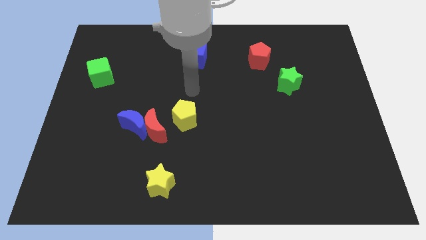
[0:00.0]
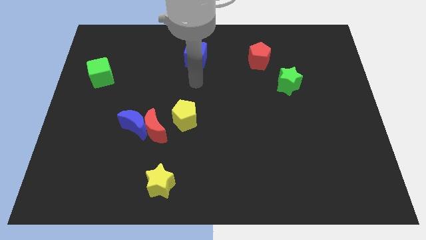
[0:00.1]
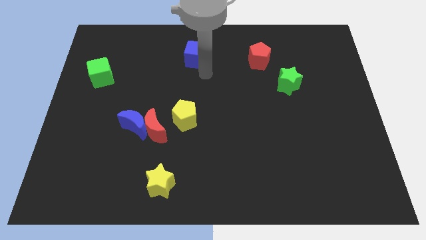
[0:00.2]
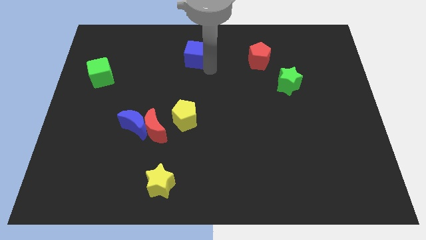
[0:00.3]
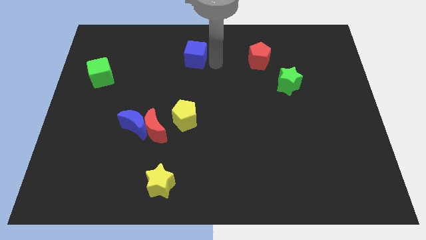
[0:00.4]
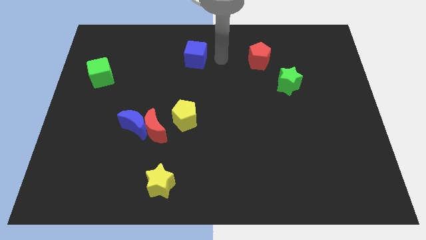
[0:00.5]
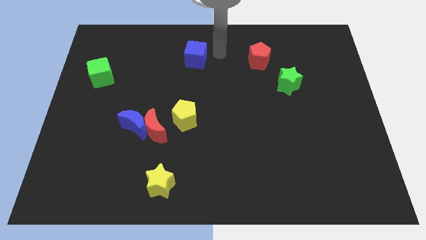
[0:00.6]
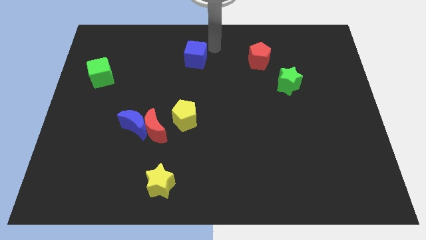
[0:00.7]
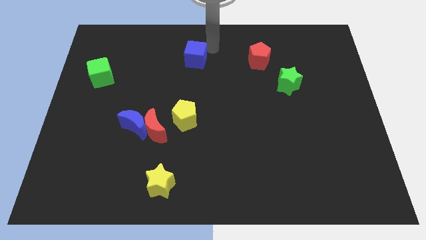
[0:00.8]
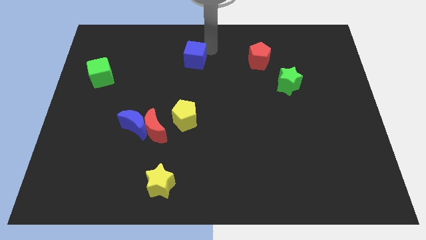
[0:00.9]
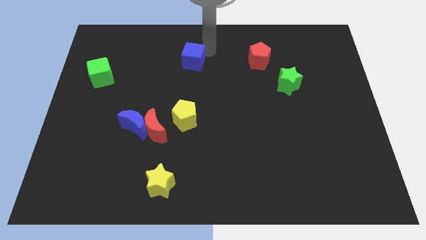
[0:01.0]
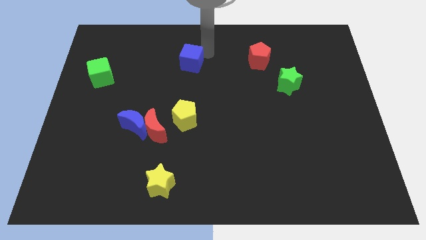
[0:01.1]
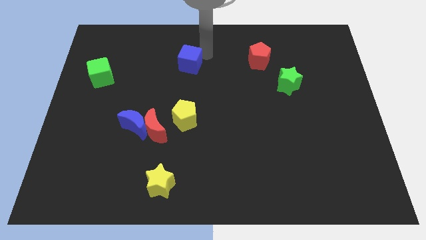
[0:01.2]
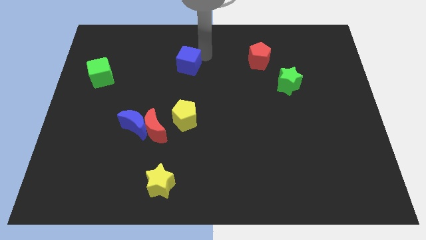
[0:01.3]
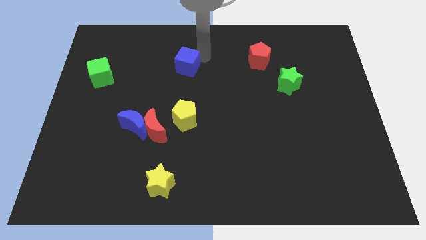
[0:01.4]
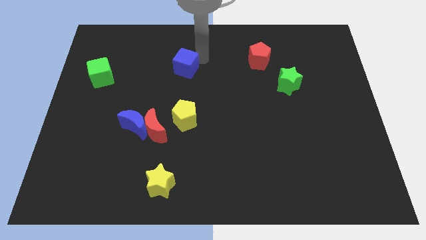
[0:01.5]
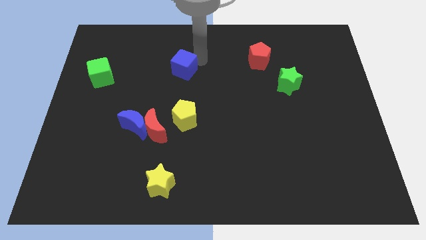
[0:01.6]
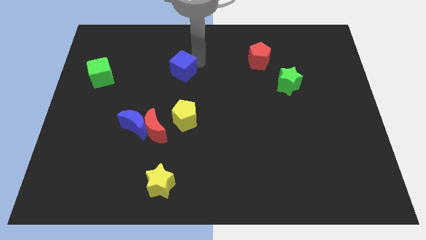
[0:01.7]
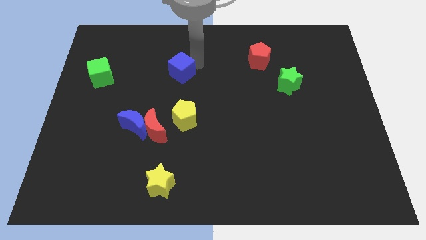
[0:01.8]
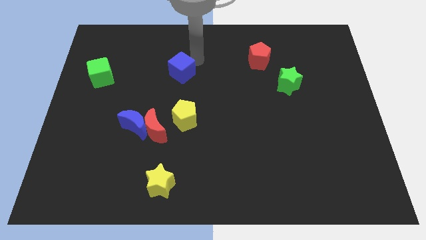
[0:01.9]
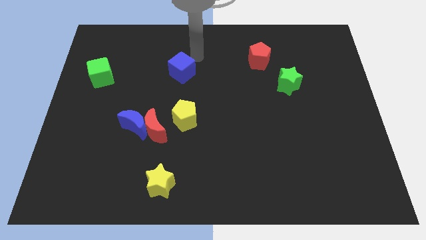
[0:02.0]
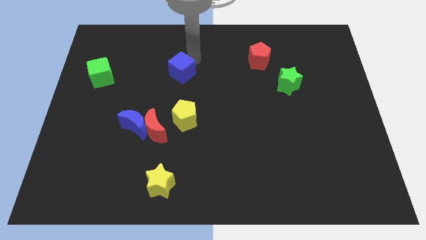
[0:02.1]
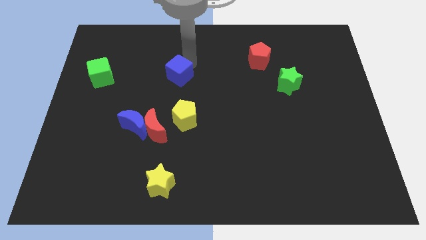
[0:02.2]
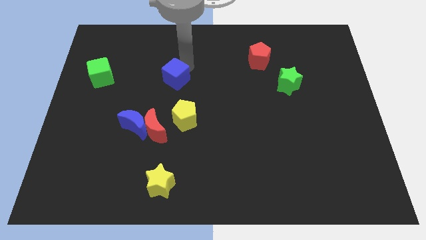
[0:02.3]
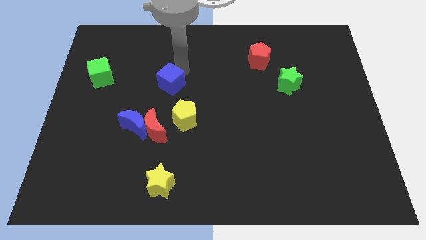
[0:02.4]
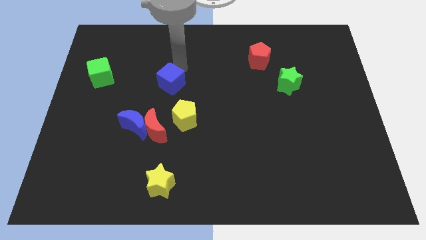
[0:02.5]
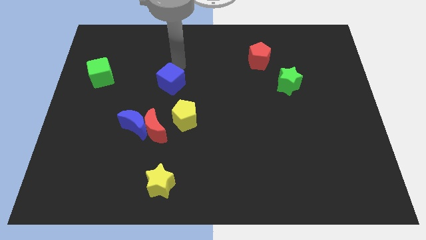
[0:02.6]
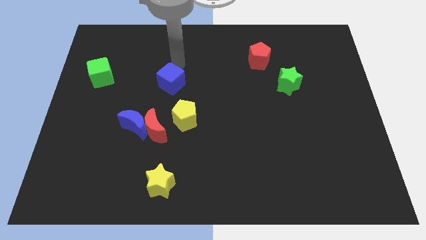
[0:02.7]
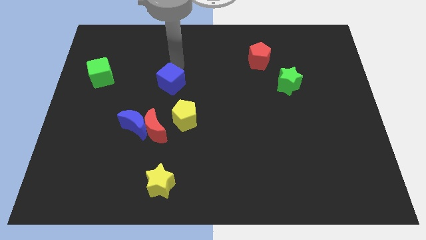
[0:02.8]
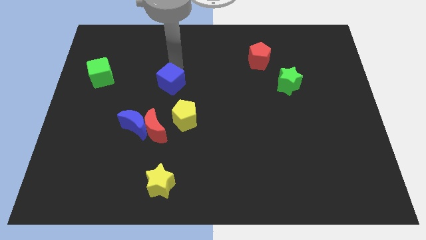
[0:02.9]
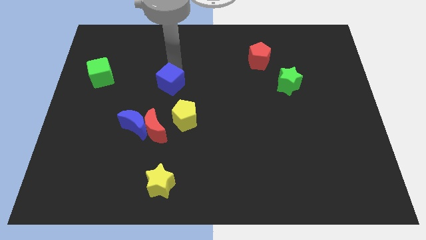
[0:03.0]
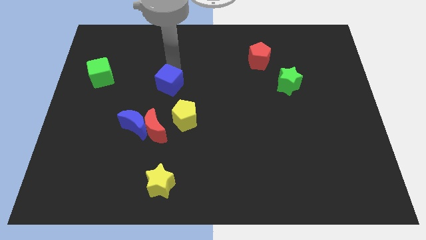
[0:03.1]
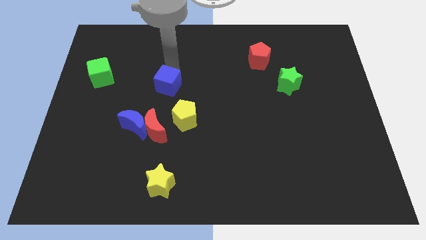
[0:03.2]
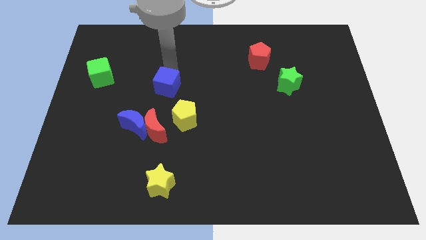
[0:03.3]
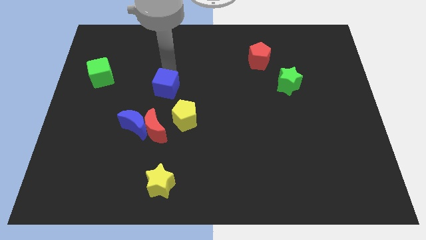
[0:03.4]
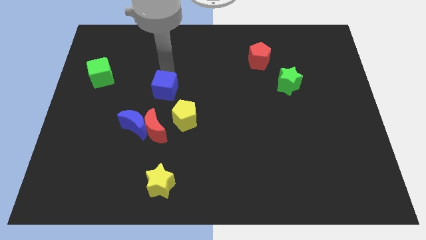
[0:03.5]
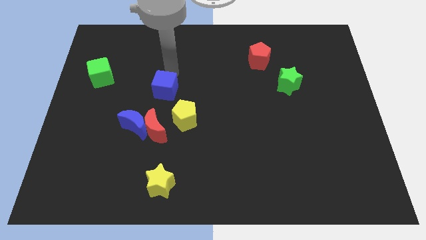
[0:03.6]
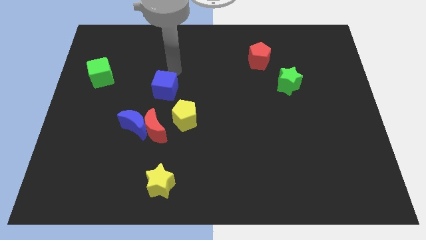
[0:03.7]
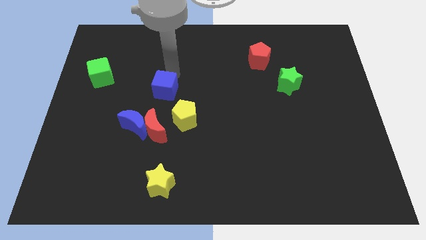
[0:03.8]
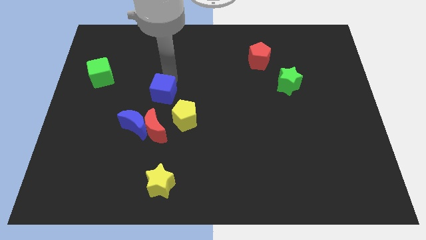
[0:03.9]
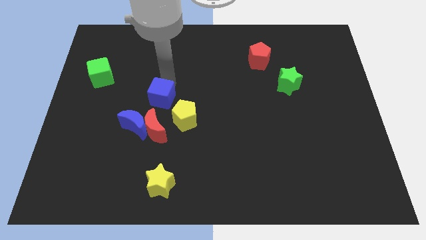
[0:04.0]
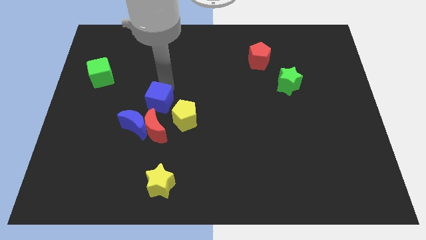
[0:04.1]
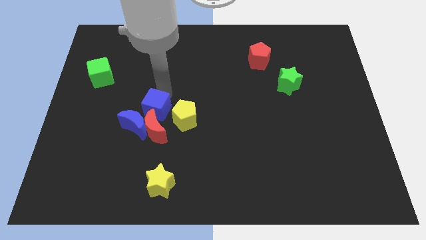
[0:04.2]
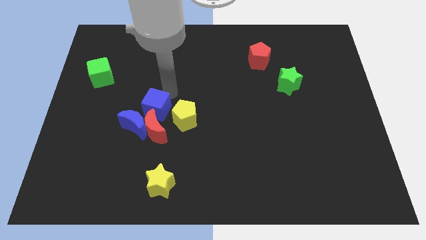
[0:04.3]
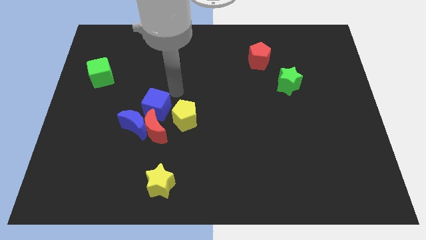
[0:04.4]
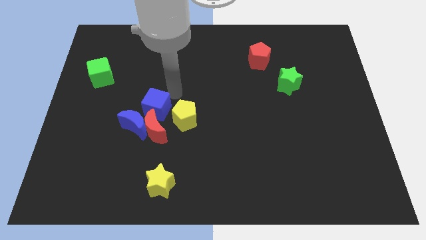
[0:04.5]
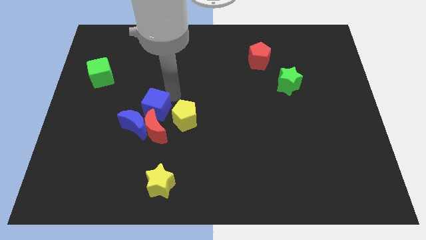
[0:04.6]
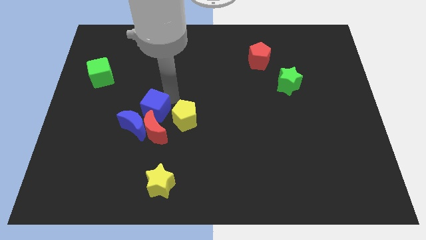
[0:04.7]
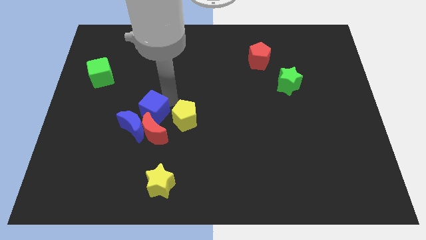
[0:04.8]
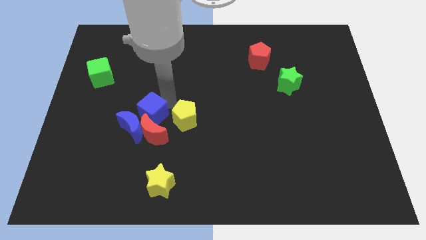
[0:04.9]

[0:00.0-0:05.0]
slide the blue cube close to the blue moon

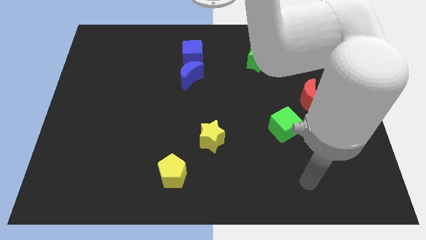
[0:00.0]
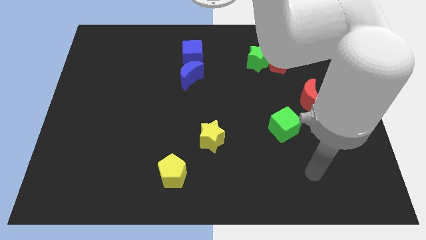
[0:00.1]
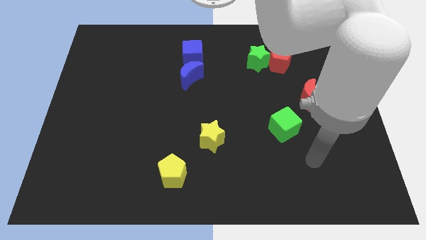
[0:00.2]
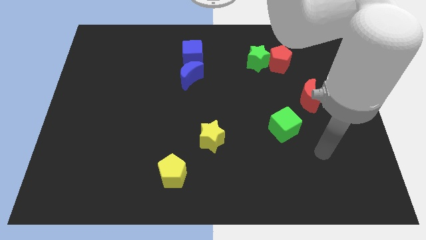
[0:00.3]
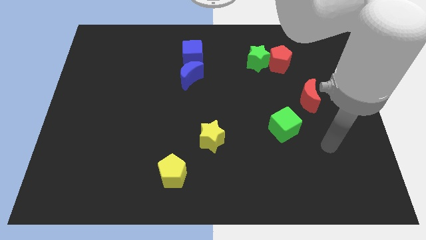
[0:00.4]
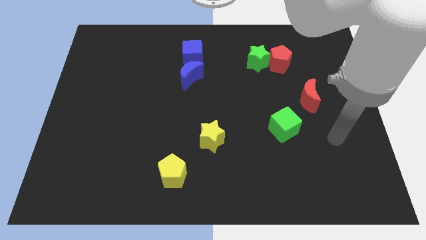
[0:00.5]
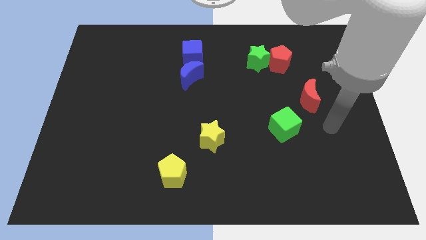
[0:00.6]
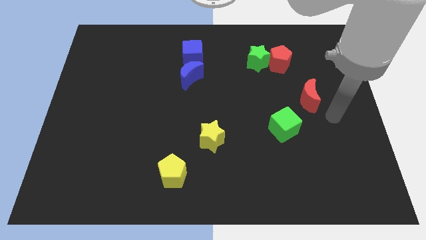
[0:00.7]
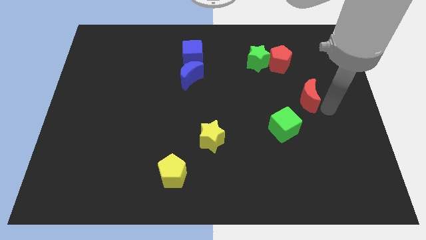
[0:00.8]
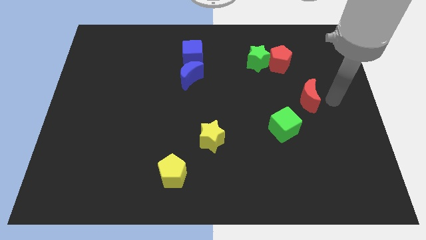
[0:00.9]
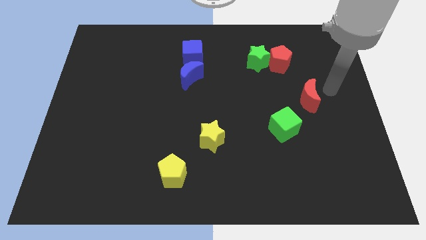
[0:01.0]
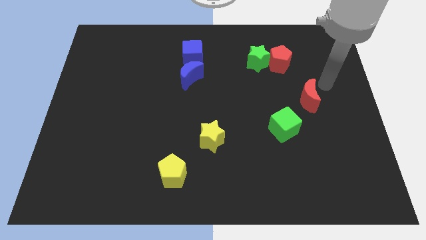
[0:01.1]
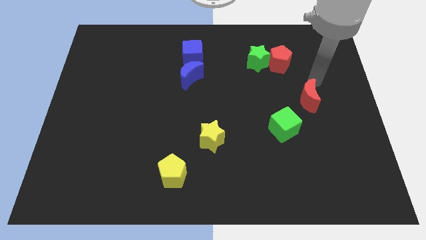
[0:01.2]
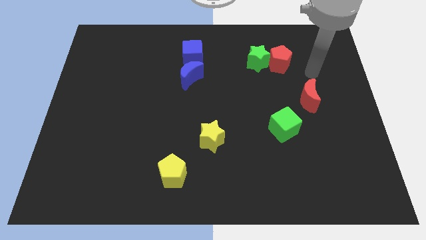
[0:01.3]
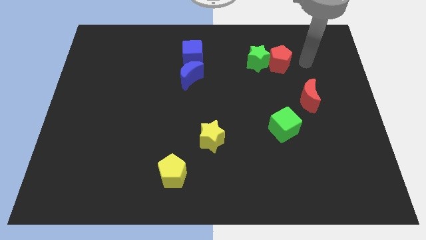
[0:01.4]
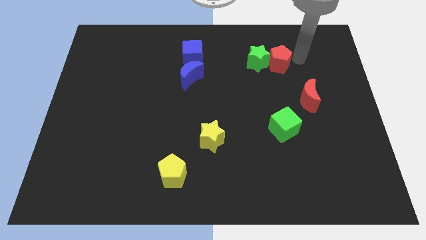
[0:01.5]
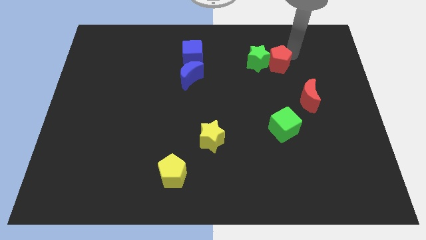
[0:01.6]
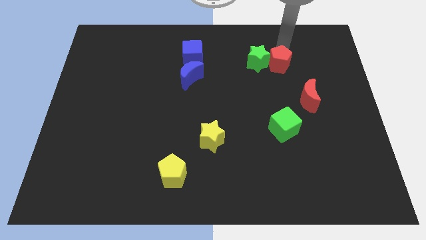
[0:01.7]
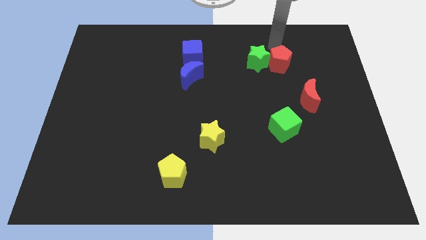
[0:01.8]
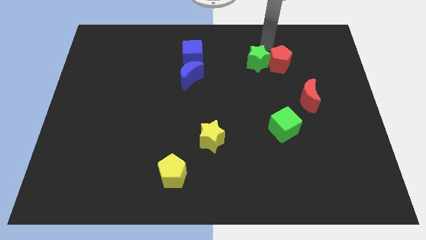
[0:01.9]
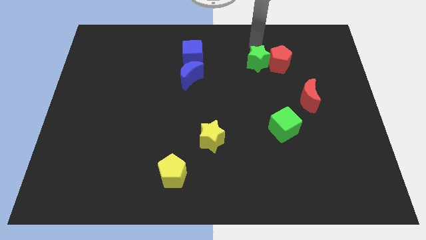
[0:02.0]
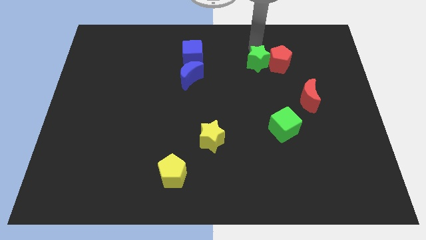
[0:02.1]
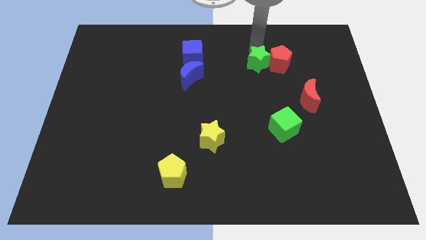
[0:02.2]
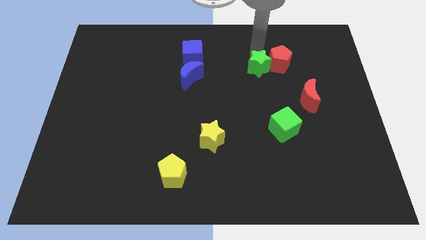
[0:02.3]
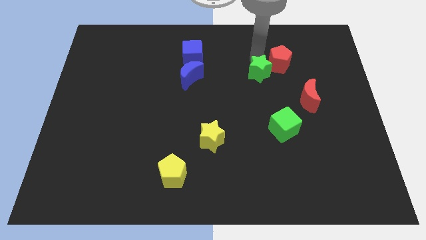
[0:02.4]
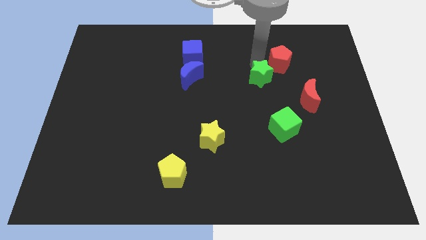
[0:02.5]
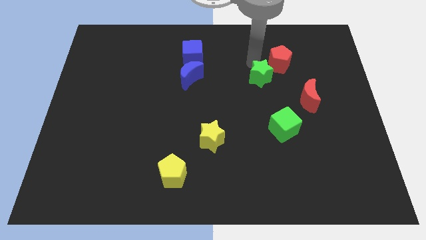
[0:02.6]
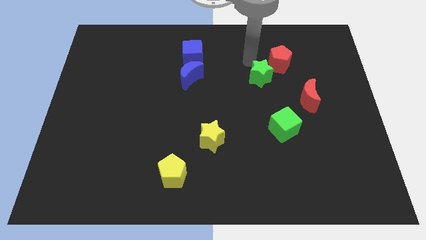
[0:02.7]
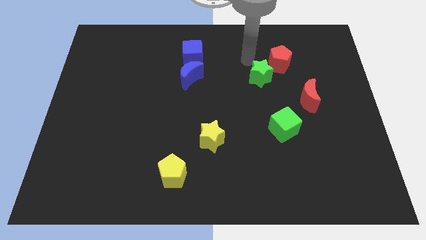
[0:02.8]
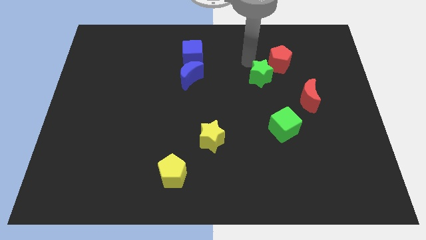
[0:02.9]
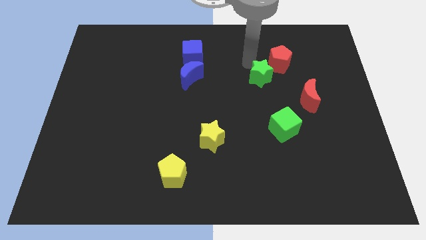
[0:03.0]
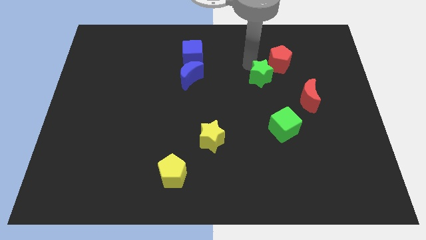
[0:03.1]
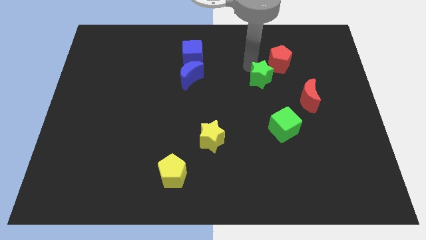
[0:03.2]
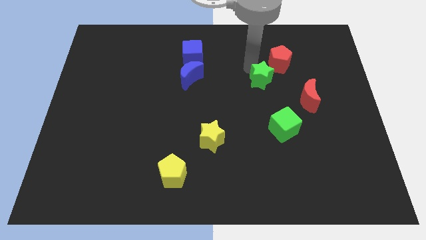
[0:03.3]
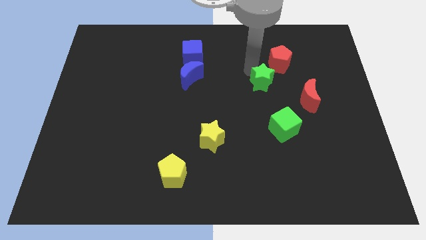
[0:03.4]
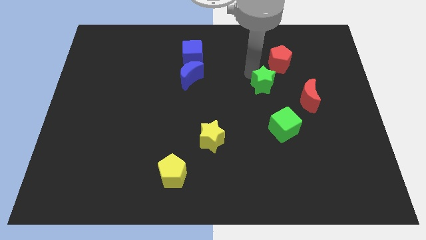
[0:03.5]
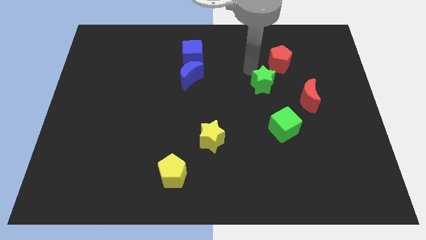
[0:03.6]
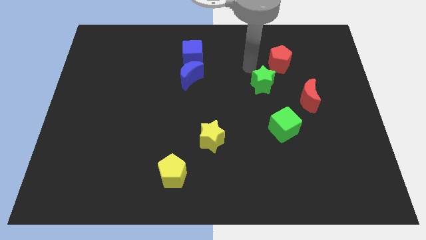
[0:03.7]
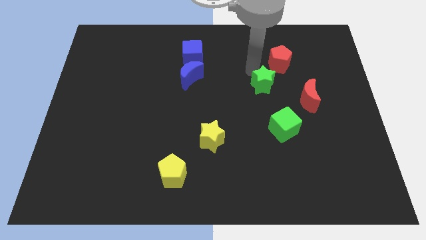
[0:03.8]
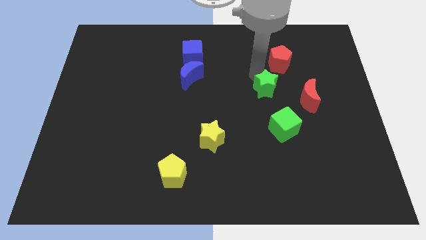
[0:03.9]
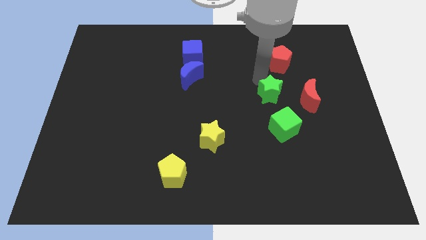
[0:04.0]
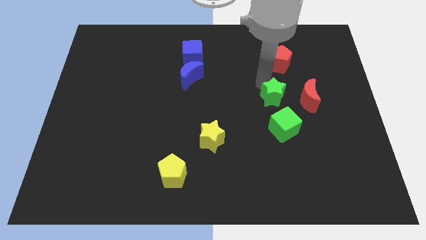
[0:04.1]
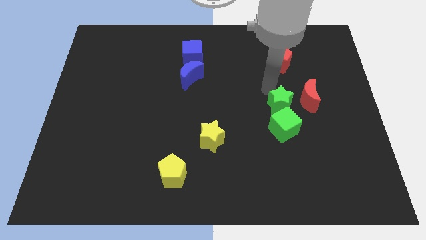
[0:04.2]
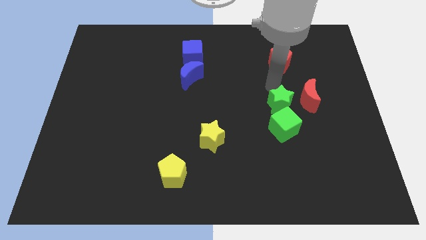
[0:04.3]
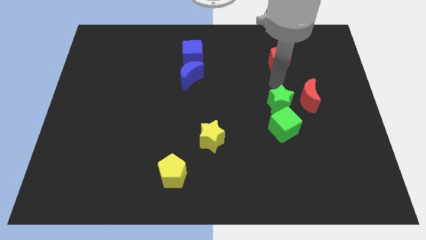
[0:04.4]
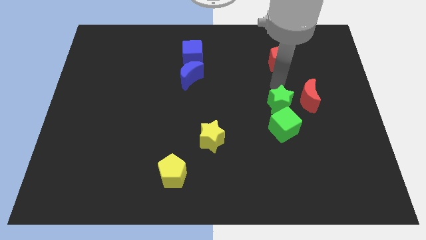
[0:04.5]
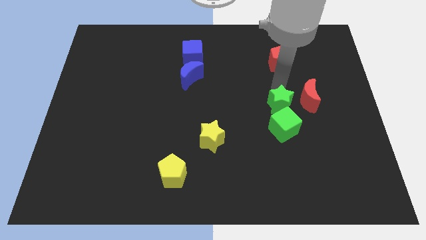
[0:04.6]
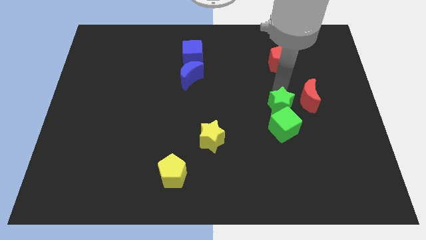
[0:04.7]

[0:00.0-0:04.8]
move the green star next to the green cube
